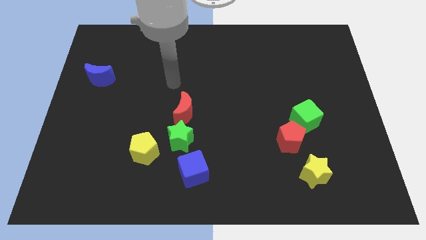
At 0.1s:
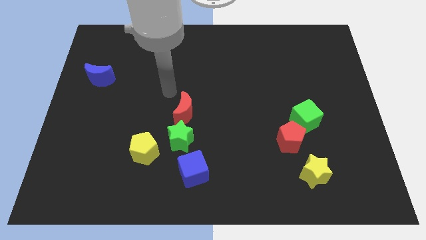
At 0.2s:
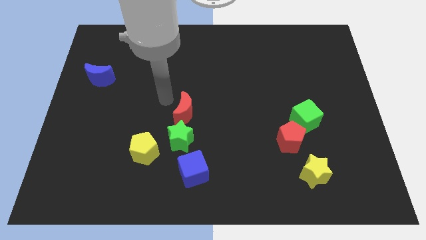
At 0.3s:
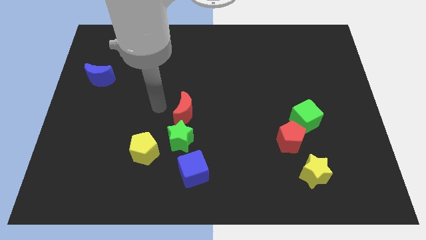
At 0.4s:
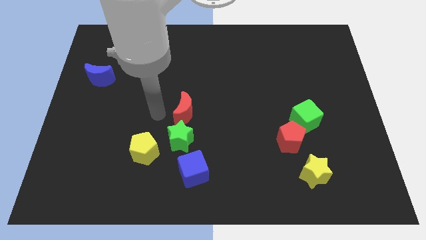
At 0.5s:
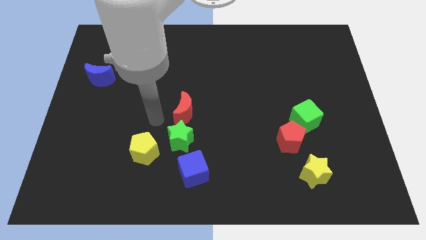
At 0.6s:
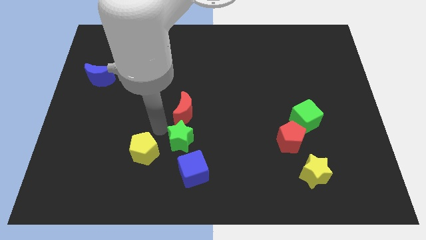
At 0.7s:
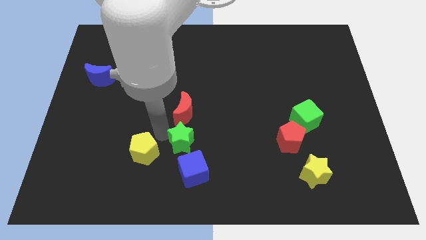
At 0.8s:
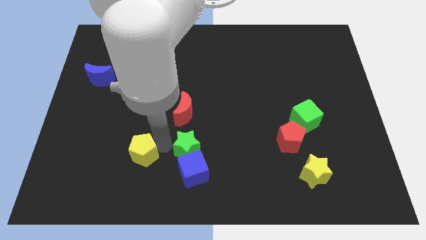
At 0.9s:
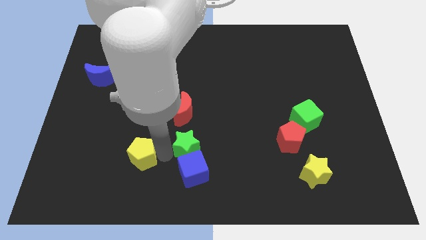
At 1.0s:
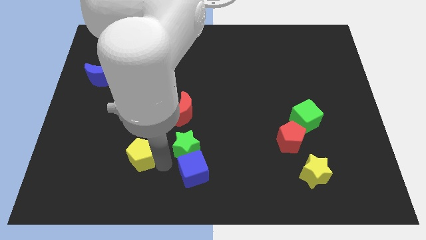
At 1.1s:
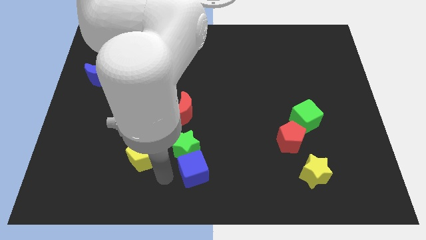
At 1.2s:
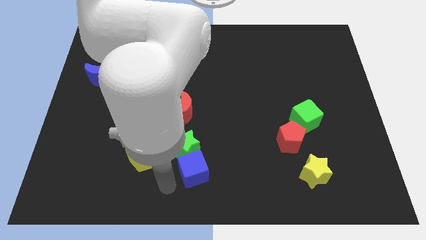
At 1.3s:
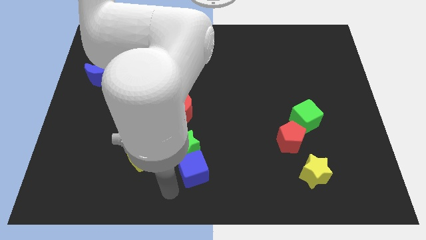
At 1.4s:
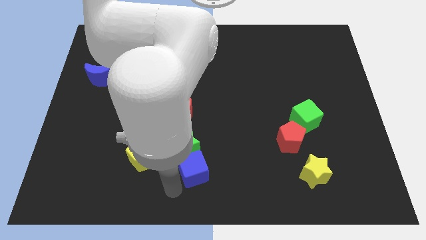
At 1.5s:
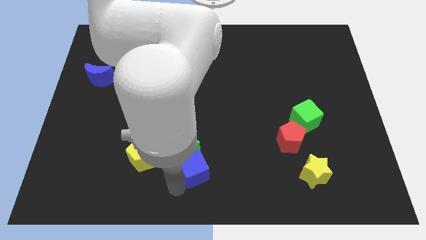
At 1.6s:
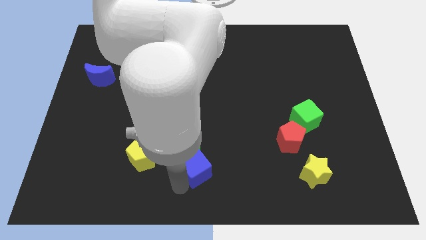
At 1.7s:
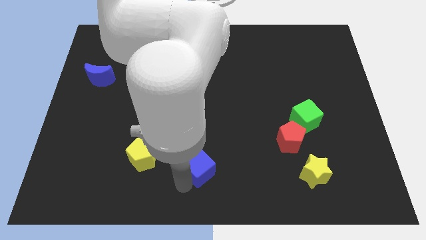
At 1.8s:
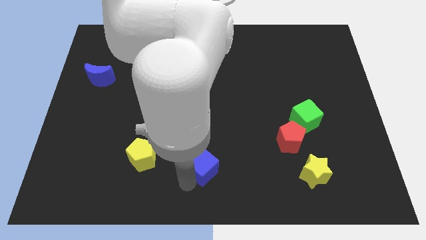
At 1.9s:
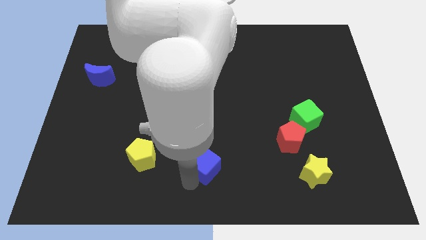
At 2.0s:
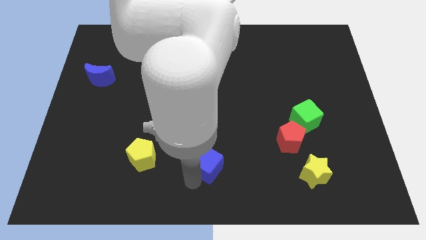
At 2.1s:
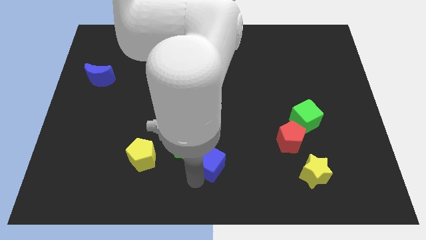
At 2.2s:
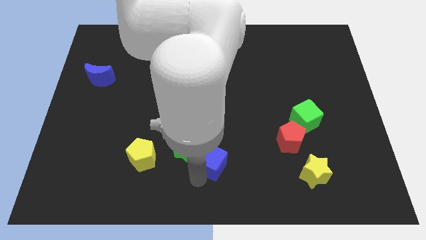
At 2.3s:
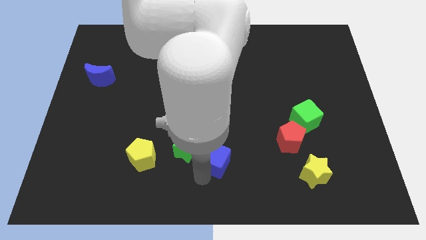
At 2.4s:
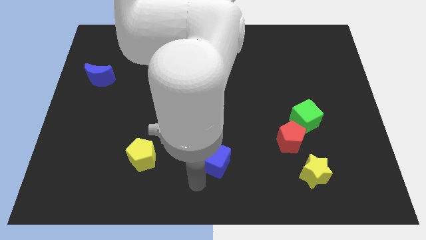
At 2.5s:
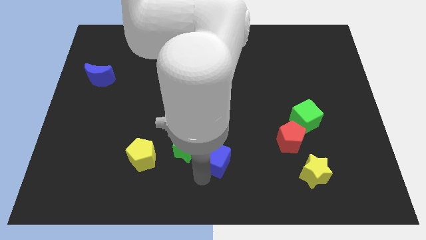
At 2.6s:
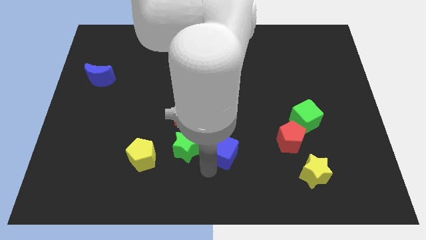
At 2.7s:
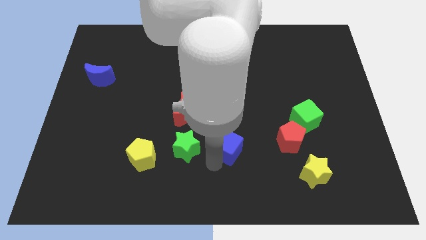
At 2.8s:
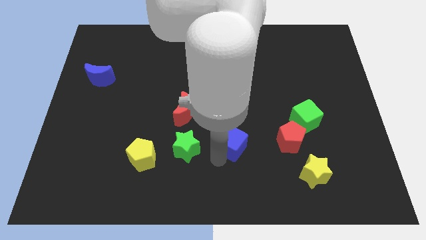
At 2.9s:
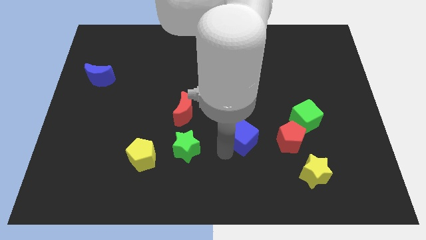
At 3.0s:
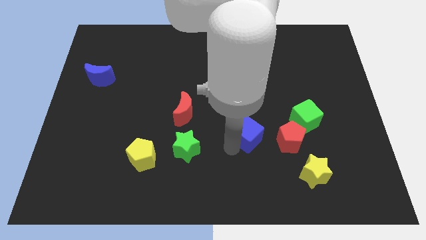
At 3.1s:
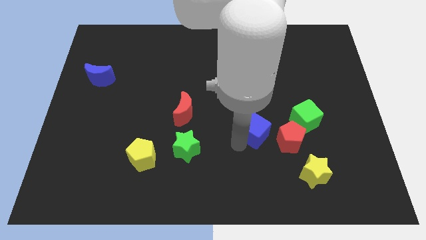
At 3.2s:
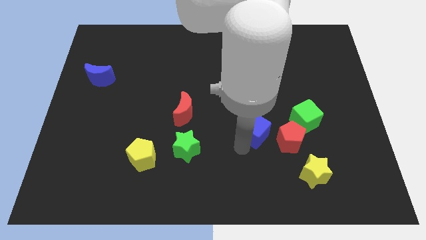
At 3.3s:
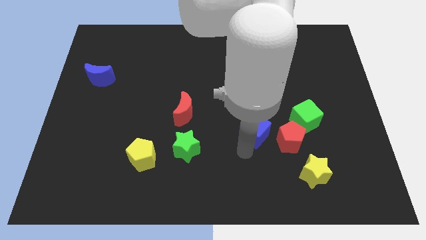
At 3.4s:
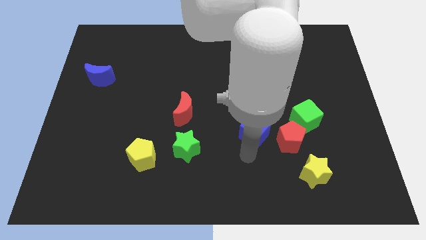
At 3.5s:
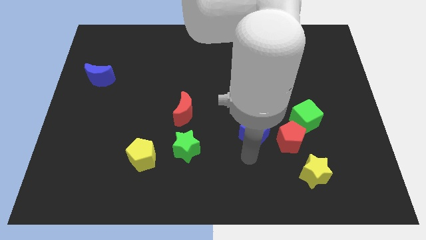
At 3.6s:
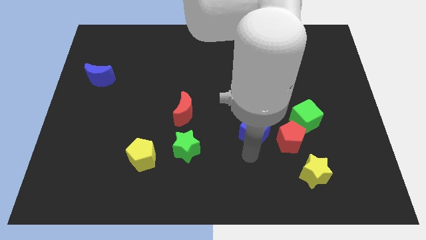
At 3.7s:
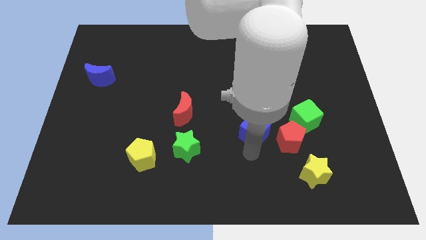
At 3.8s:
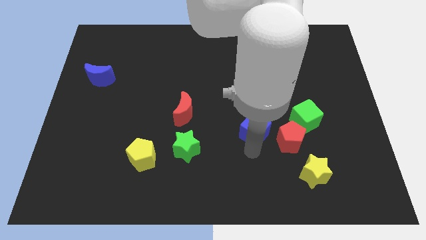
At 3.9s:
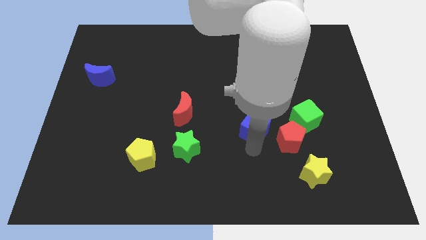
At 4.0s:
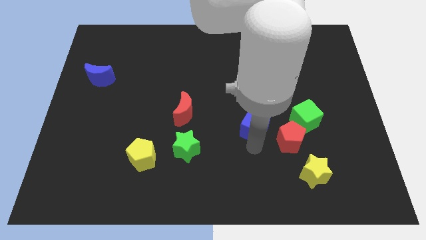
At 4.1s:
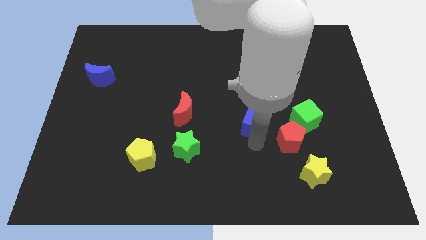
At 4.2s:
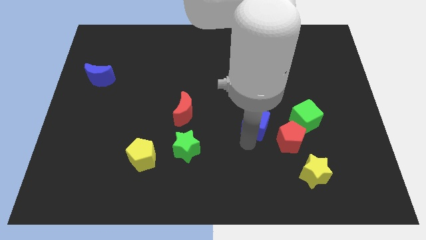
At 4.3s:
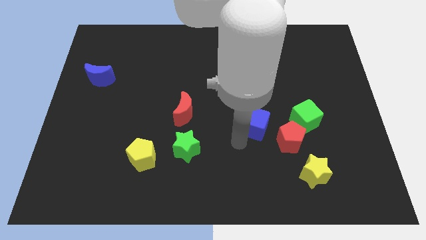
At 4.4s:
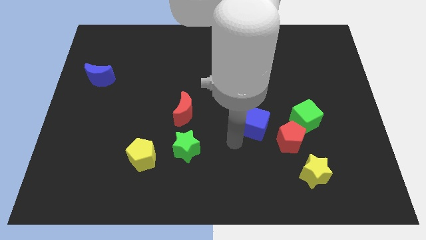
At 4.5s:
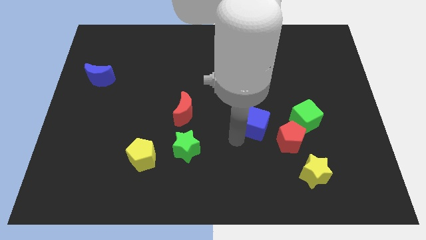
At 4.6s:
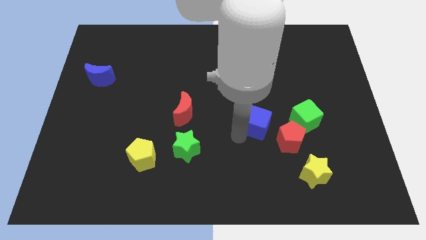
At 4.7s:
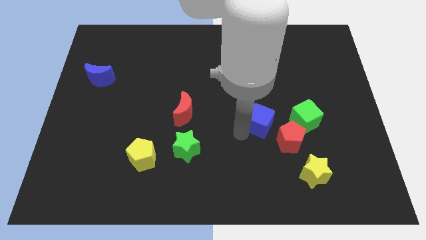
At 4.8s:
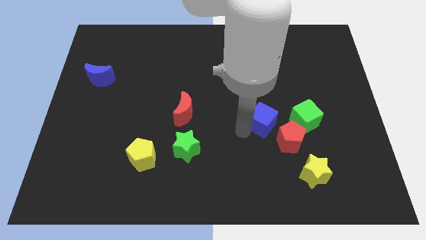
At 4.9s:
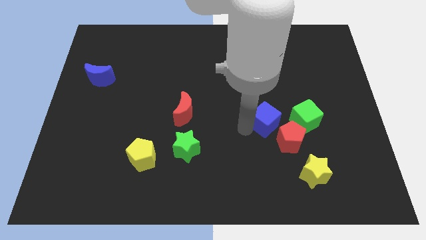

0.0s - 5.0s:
push the blue cube upwards and right

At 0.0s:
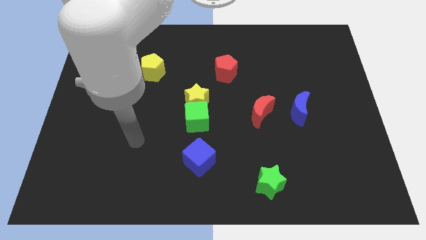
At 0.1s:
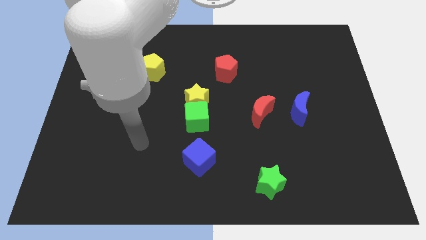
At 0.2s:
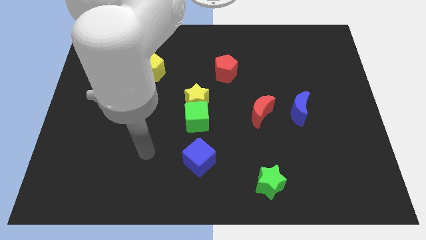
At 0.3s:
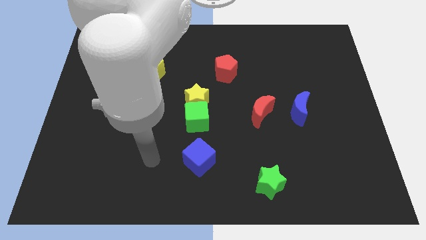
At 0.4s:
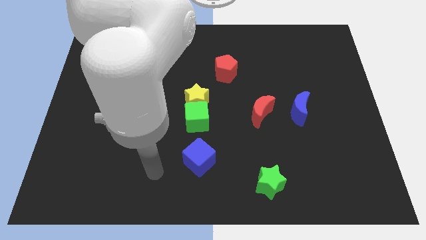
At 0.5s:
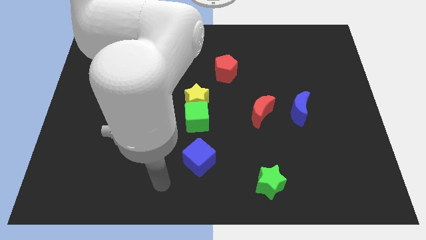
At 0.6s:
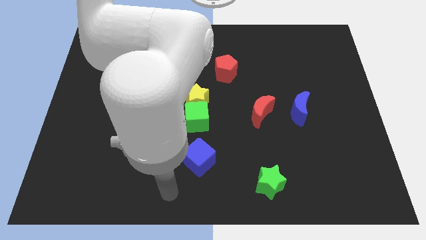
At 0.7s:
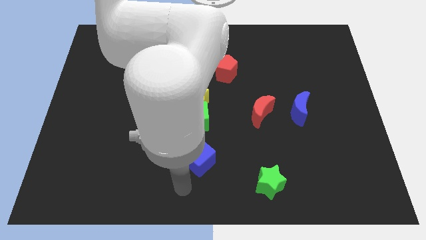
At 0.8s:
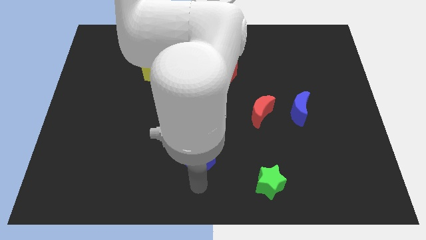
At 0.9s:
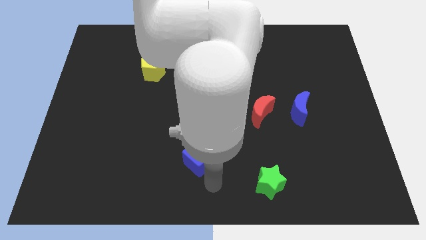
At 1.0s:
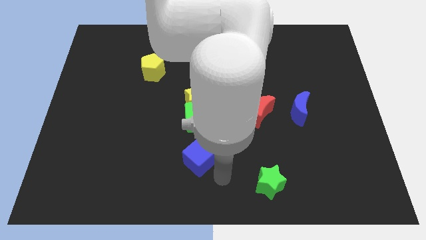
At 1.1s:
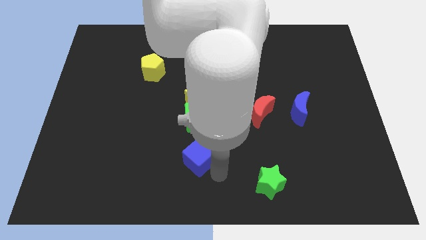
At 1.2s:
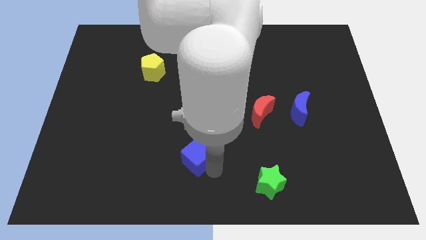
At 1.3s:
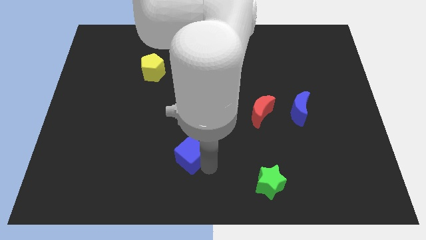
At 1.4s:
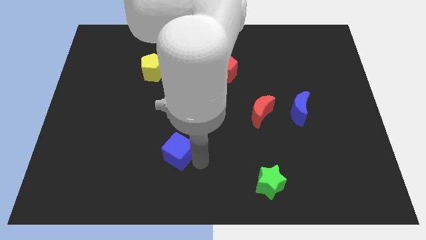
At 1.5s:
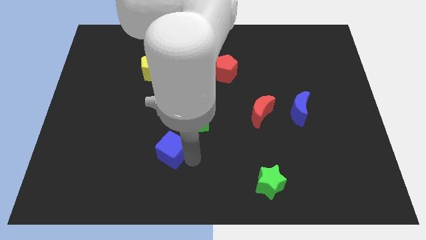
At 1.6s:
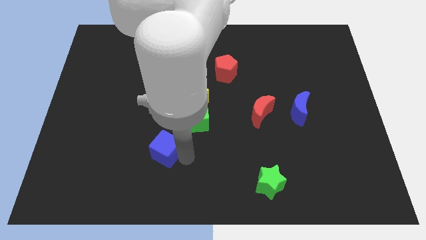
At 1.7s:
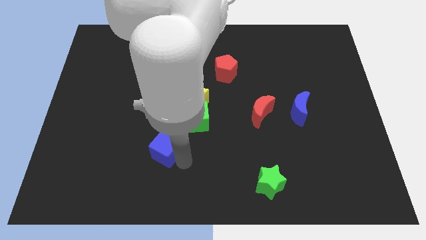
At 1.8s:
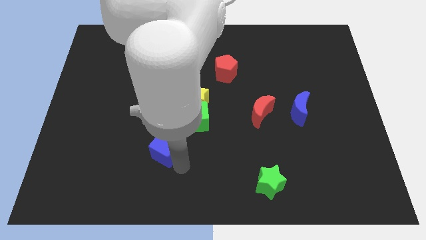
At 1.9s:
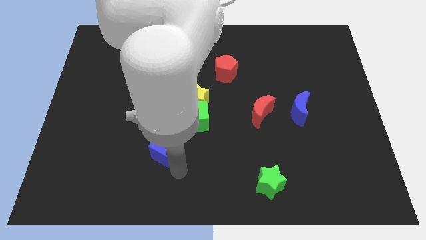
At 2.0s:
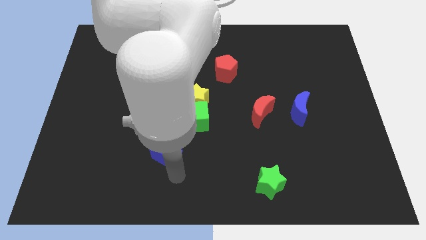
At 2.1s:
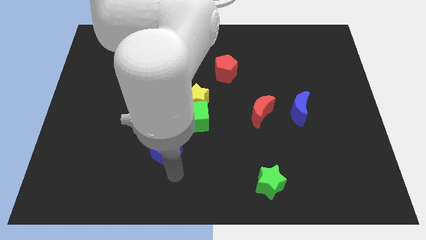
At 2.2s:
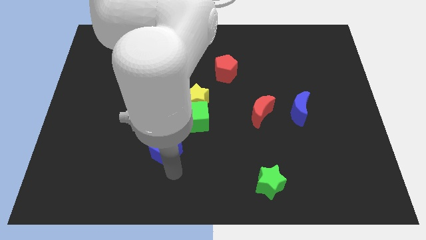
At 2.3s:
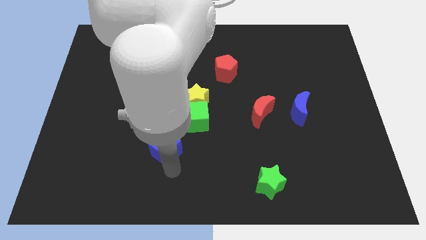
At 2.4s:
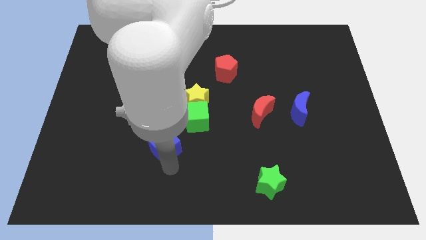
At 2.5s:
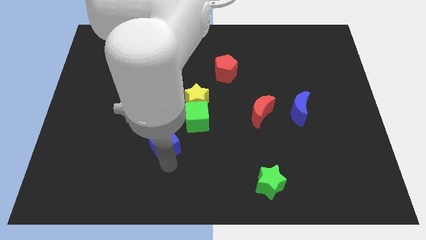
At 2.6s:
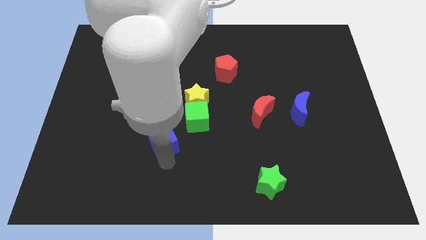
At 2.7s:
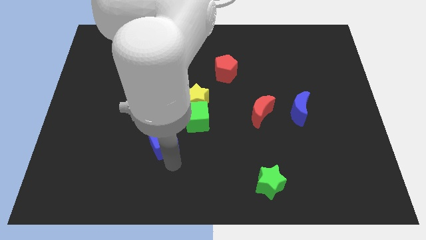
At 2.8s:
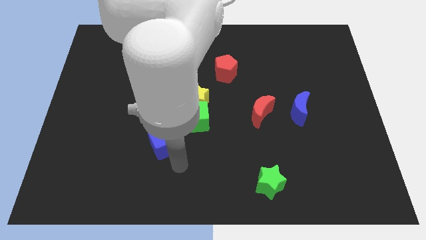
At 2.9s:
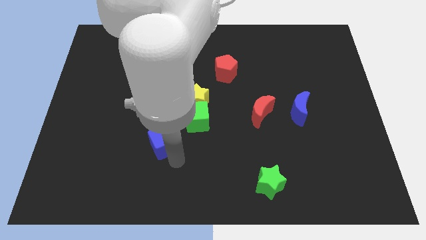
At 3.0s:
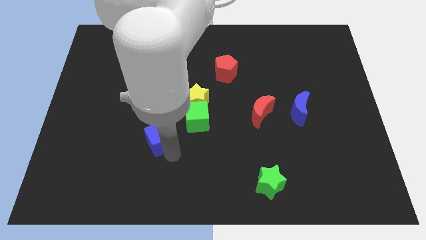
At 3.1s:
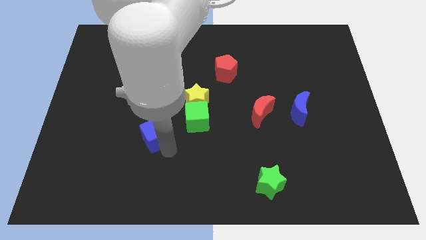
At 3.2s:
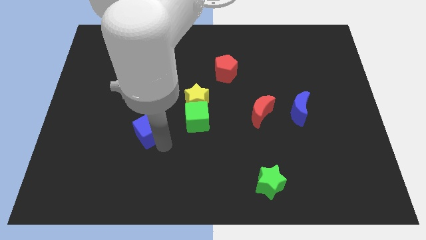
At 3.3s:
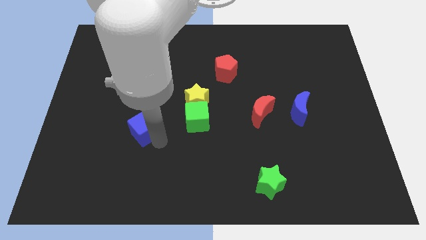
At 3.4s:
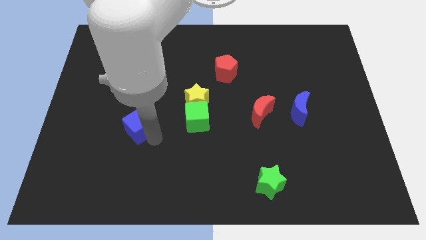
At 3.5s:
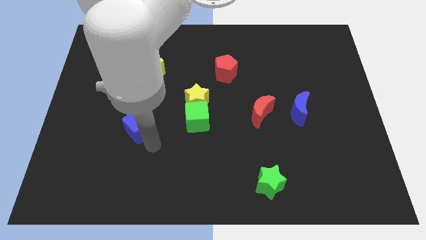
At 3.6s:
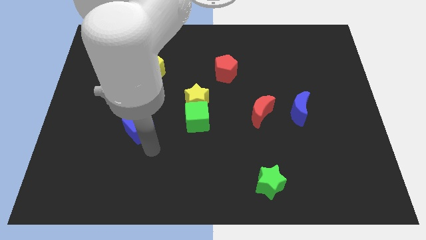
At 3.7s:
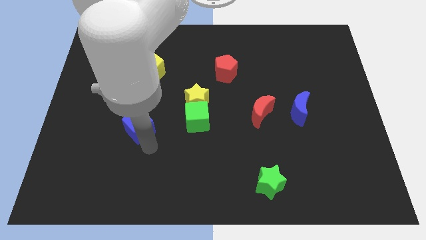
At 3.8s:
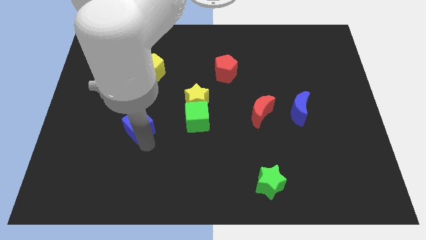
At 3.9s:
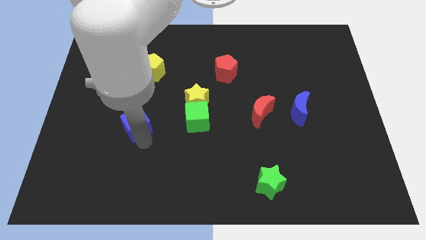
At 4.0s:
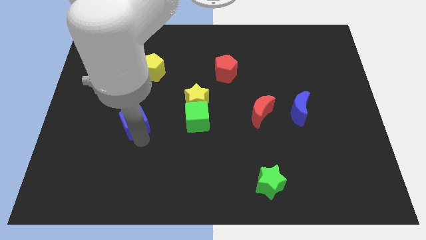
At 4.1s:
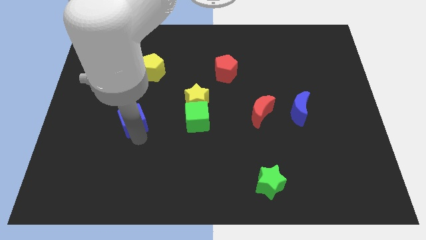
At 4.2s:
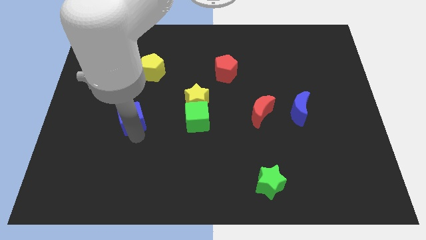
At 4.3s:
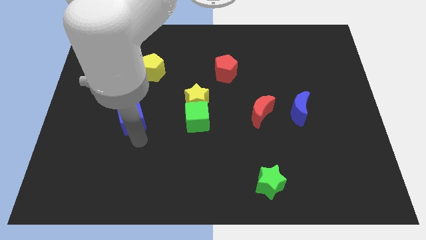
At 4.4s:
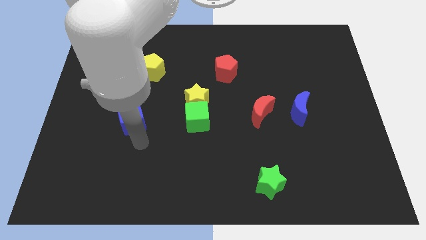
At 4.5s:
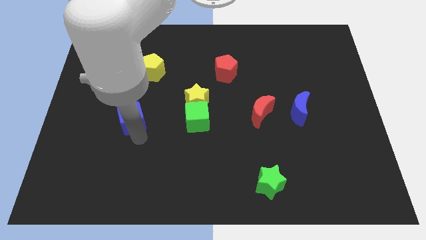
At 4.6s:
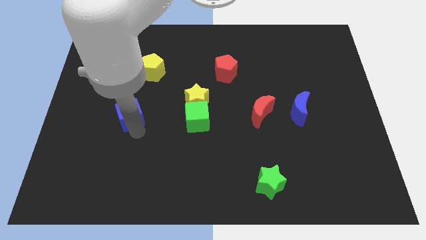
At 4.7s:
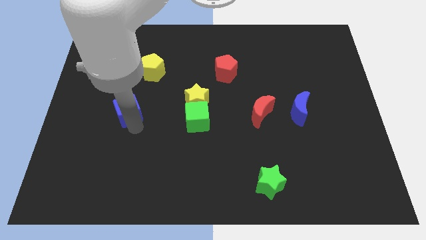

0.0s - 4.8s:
move the blue cube up and to the left diagonally
